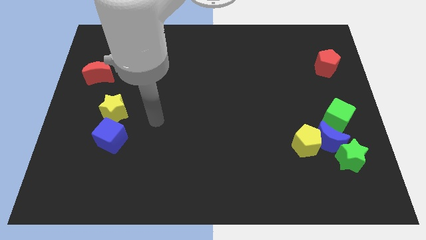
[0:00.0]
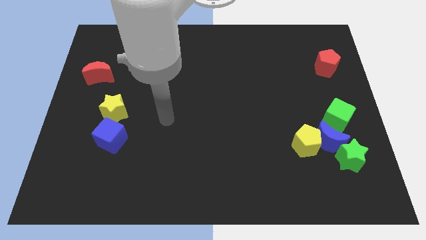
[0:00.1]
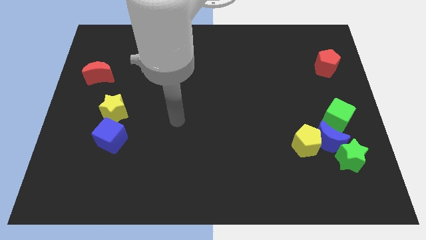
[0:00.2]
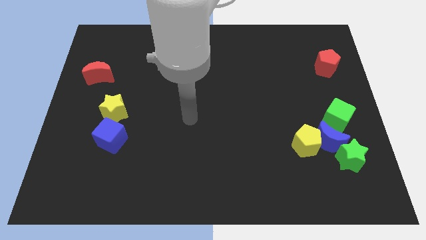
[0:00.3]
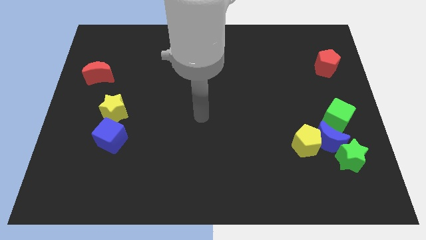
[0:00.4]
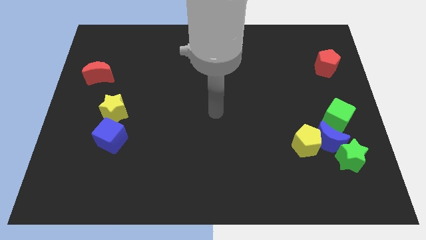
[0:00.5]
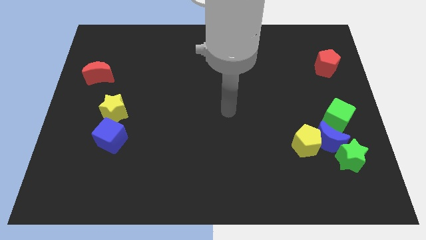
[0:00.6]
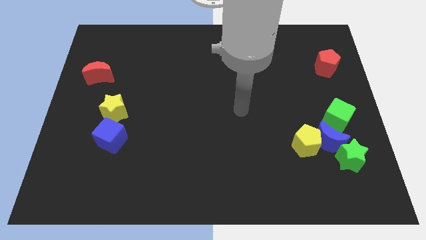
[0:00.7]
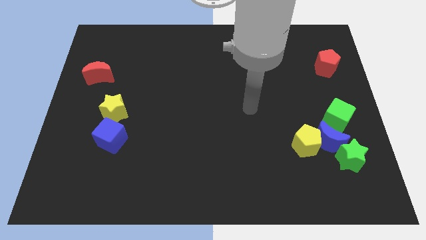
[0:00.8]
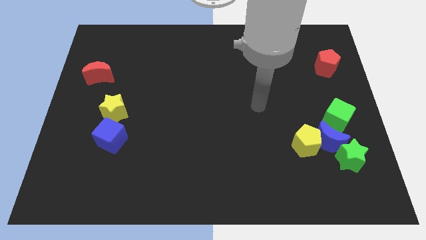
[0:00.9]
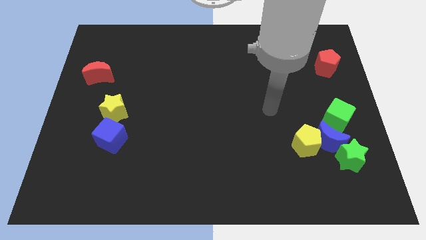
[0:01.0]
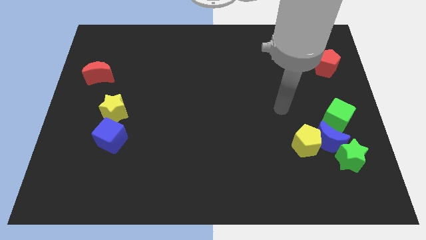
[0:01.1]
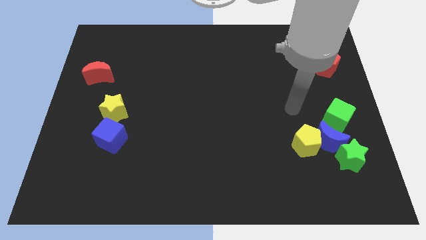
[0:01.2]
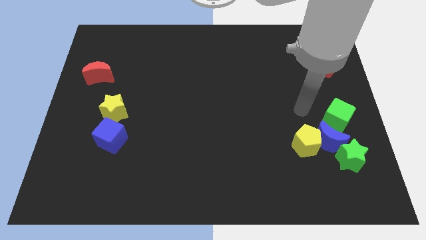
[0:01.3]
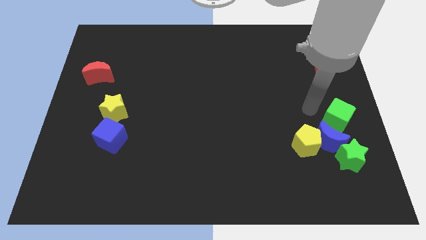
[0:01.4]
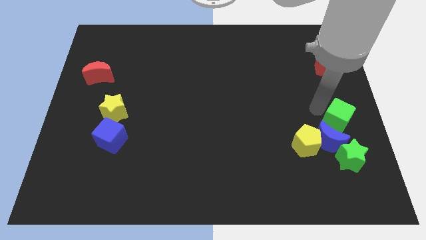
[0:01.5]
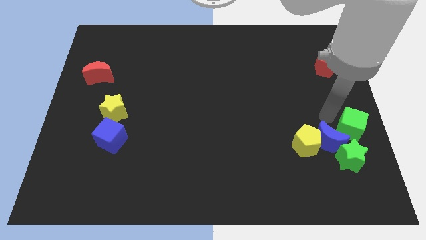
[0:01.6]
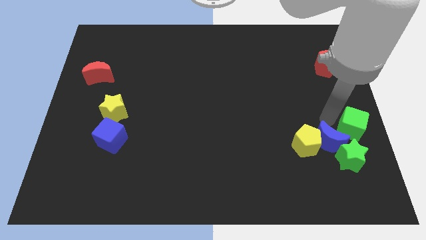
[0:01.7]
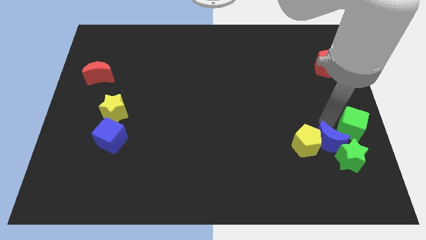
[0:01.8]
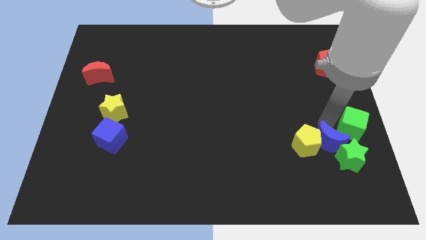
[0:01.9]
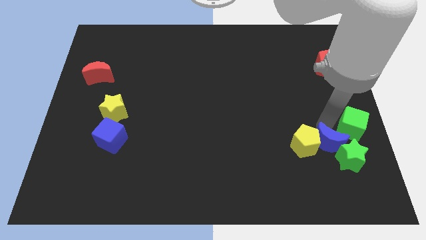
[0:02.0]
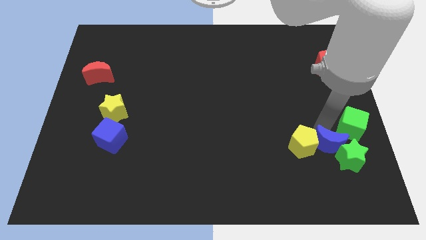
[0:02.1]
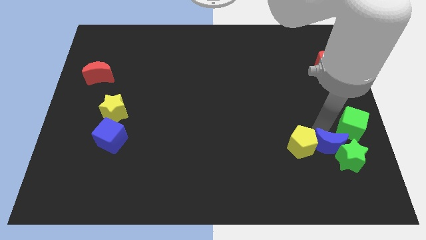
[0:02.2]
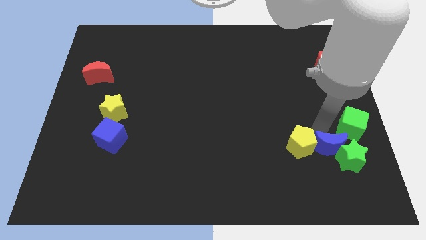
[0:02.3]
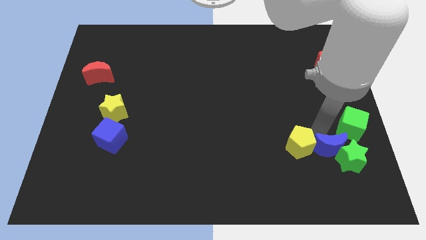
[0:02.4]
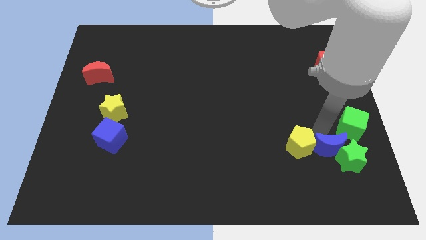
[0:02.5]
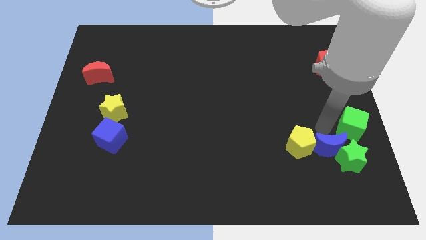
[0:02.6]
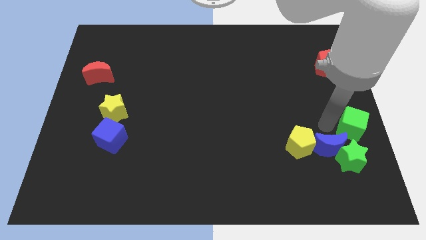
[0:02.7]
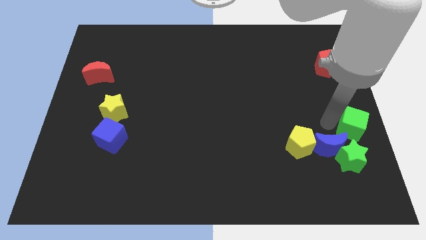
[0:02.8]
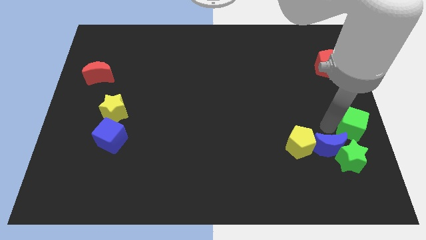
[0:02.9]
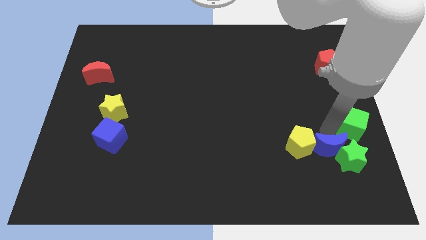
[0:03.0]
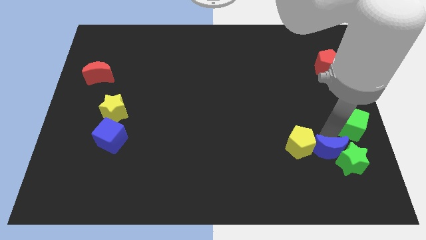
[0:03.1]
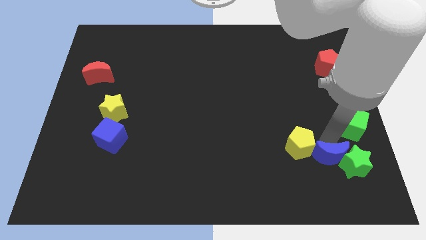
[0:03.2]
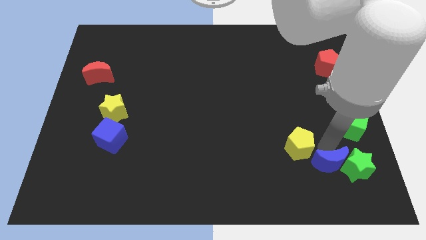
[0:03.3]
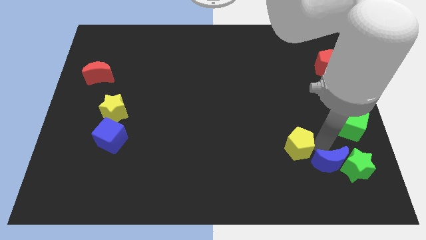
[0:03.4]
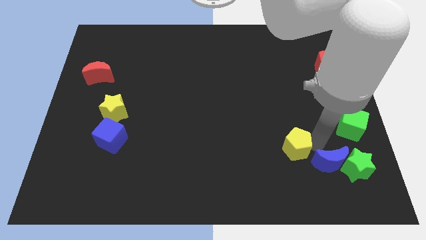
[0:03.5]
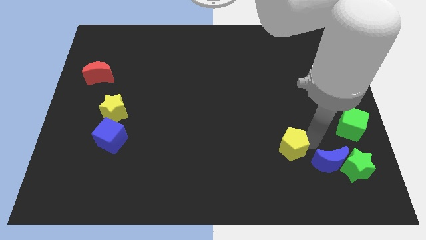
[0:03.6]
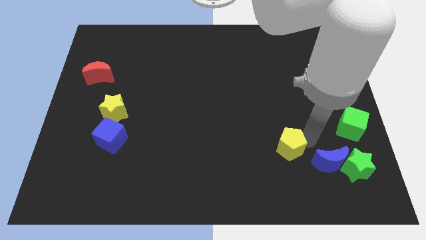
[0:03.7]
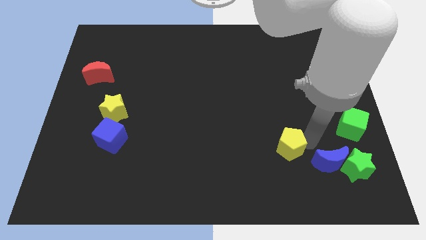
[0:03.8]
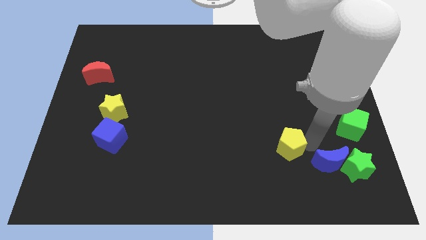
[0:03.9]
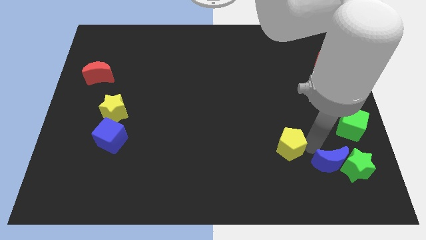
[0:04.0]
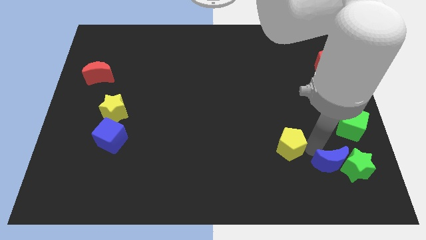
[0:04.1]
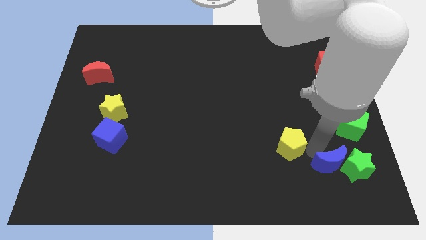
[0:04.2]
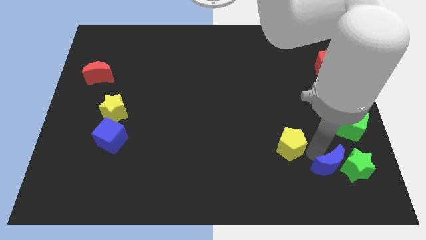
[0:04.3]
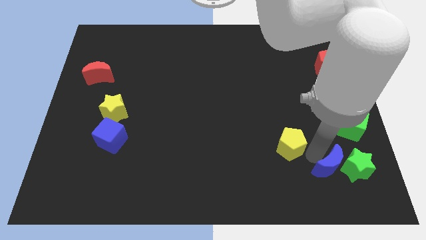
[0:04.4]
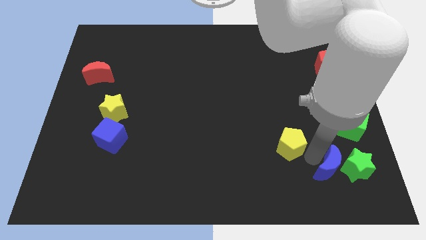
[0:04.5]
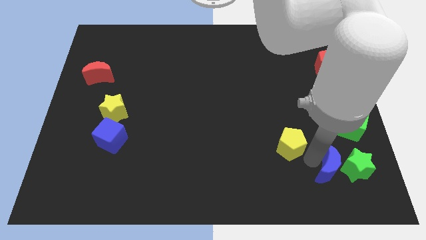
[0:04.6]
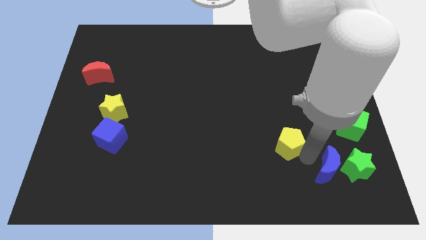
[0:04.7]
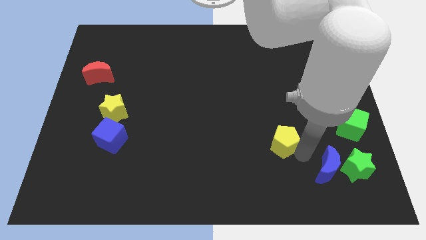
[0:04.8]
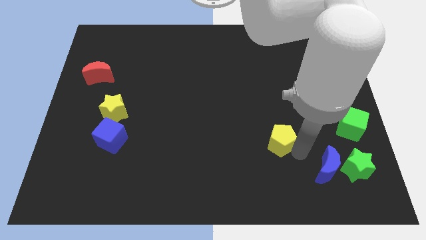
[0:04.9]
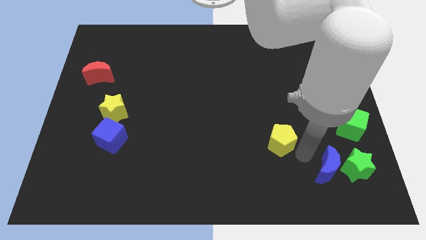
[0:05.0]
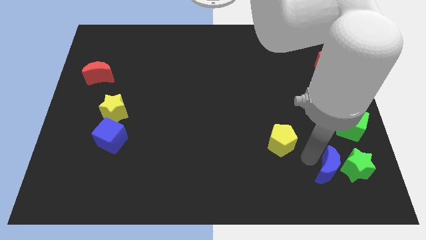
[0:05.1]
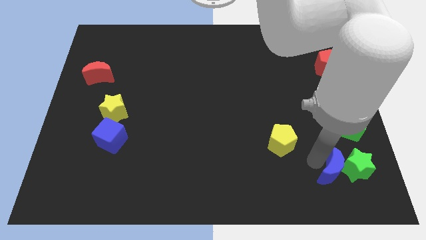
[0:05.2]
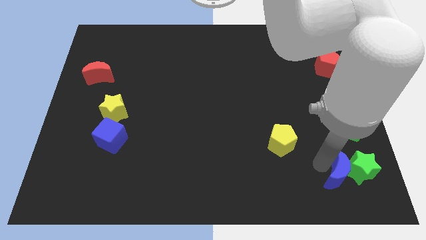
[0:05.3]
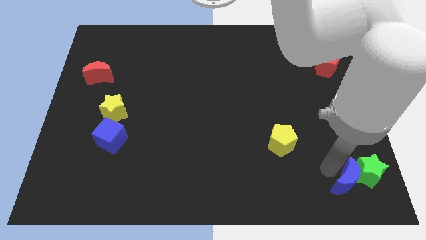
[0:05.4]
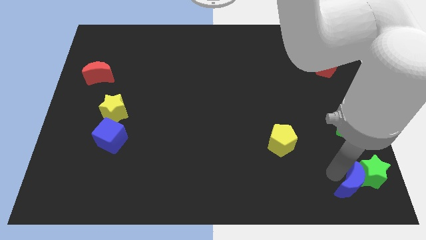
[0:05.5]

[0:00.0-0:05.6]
move the blue moon to the bottom right

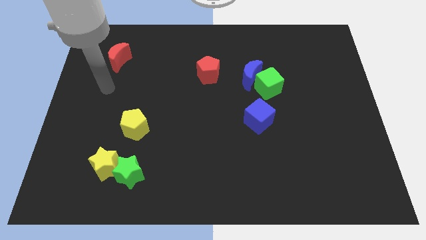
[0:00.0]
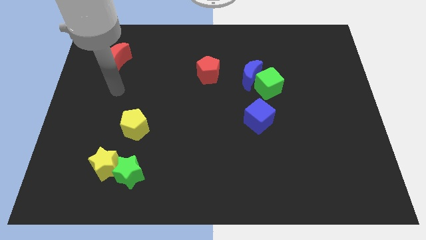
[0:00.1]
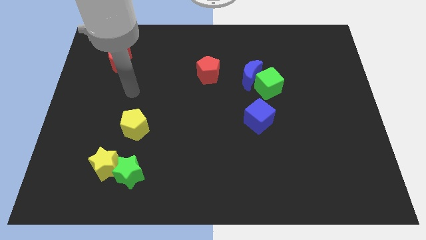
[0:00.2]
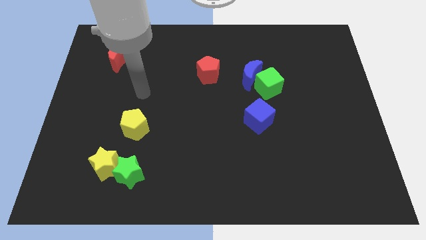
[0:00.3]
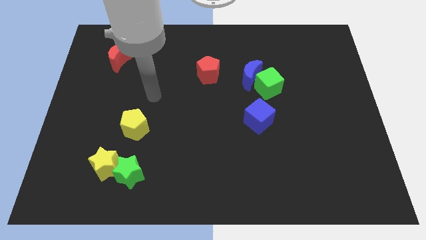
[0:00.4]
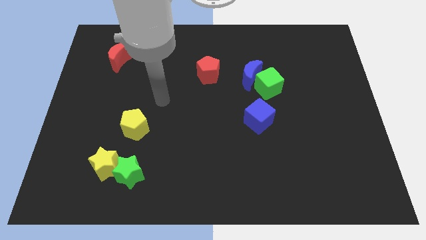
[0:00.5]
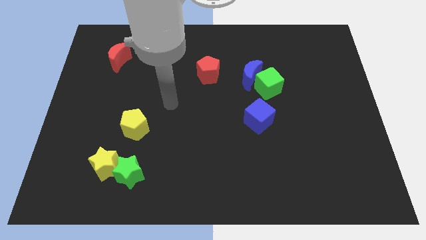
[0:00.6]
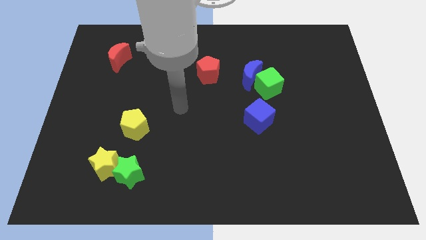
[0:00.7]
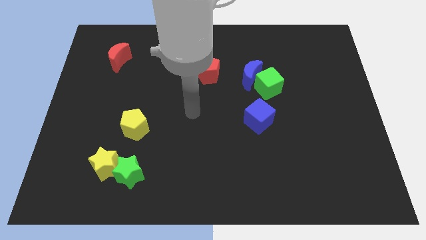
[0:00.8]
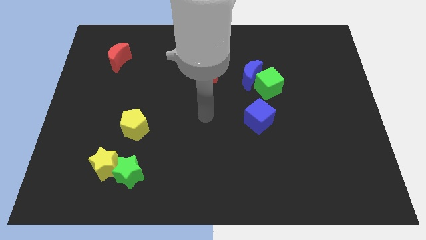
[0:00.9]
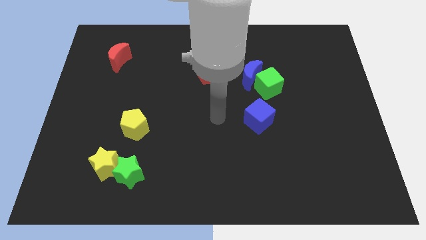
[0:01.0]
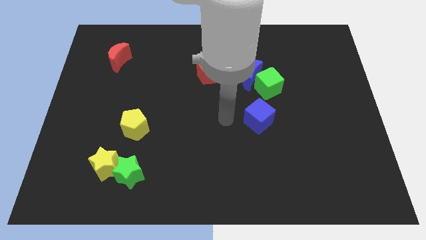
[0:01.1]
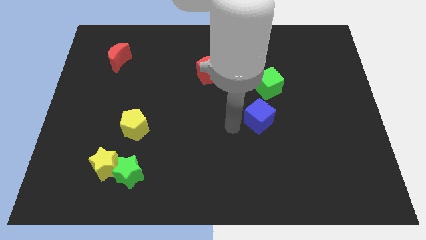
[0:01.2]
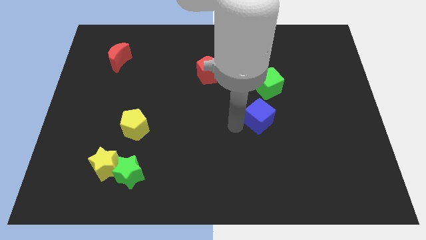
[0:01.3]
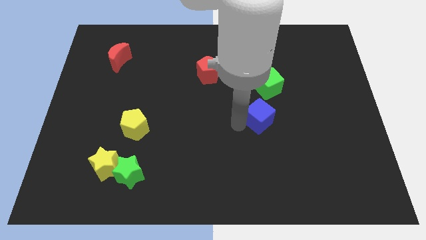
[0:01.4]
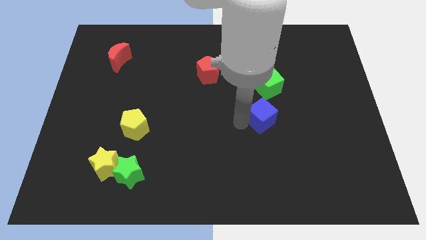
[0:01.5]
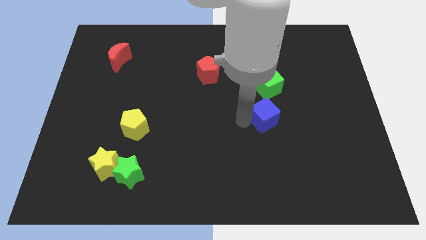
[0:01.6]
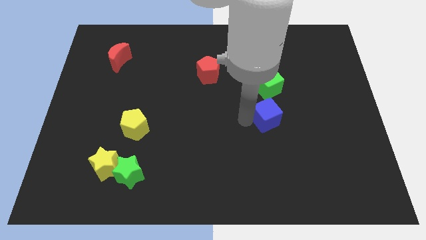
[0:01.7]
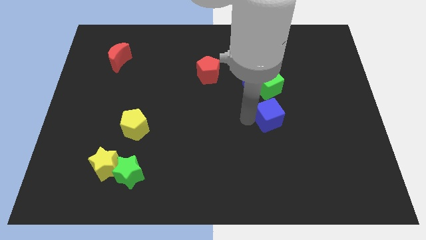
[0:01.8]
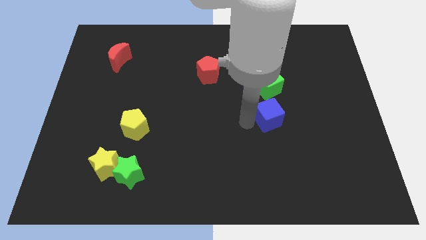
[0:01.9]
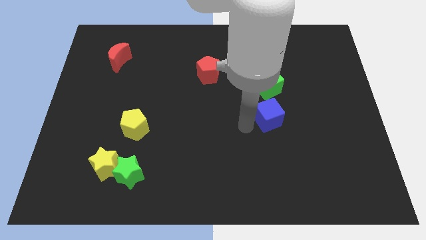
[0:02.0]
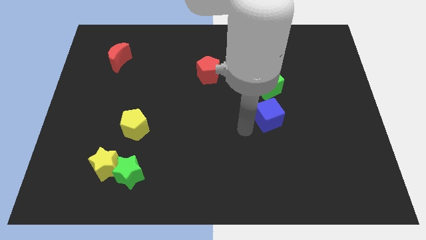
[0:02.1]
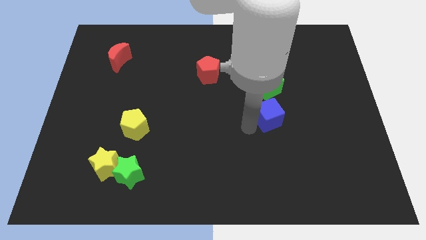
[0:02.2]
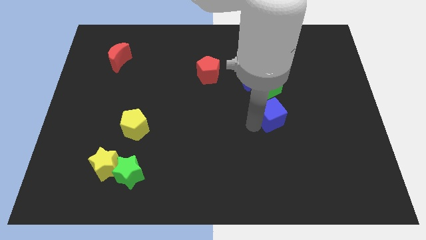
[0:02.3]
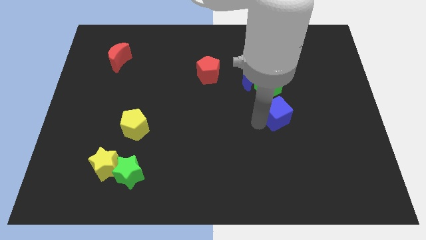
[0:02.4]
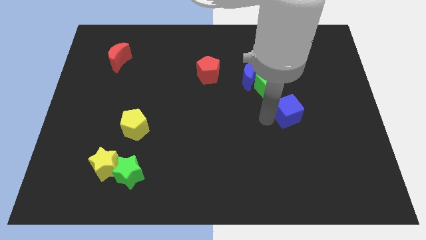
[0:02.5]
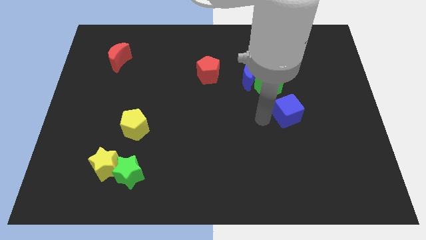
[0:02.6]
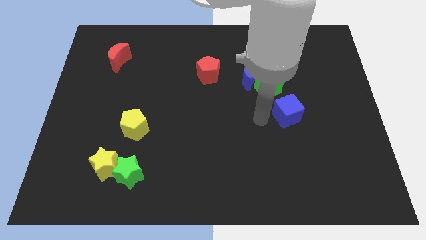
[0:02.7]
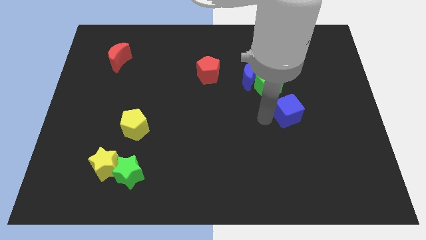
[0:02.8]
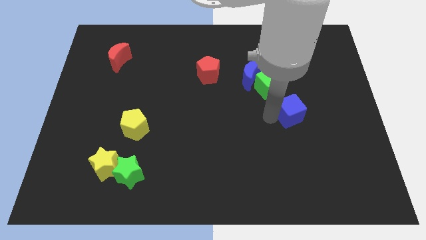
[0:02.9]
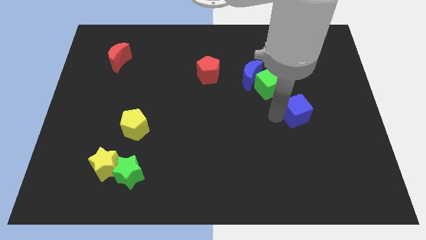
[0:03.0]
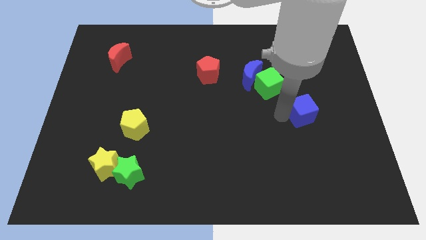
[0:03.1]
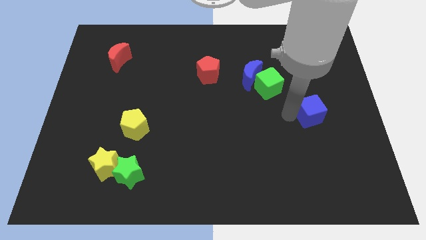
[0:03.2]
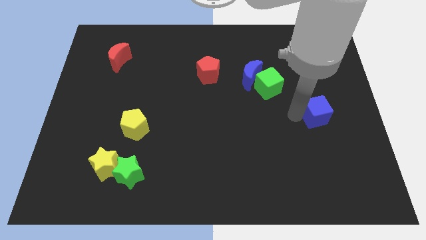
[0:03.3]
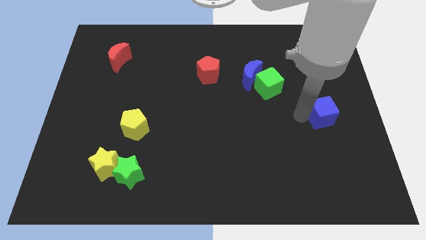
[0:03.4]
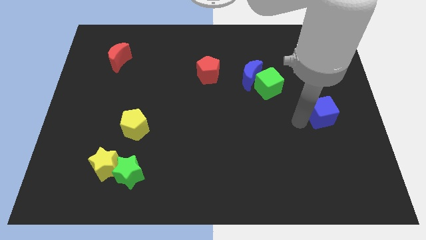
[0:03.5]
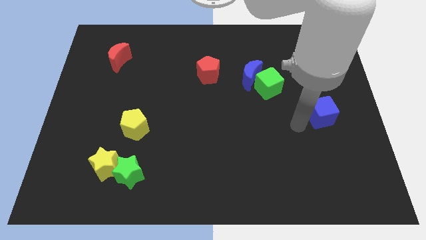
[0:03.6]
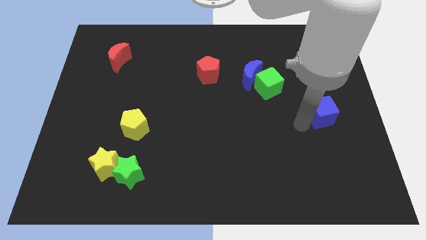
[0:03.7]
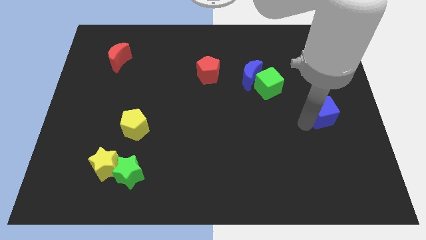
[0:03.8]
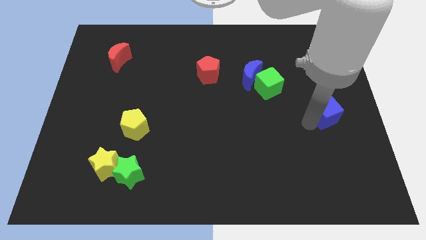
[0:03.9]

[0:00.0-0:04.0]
push the blue cube to the right side
